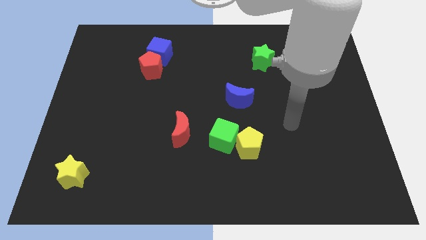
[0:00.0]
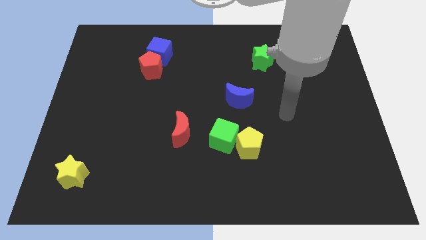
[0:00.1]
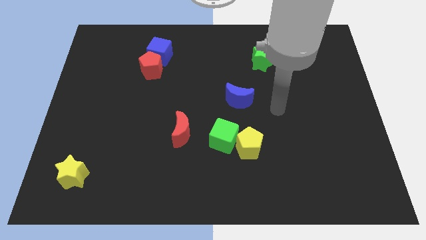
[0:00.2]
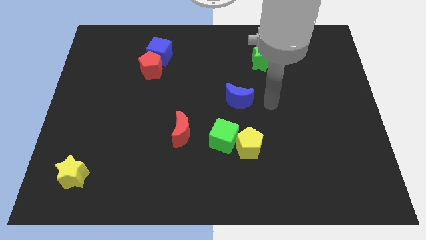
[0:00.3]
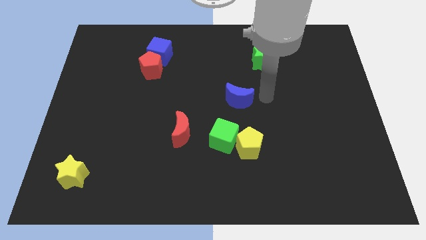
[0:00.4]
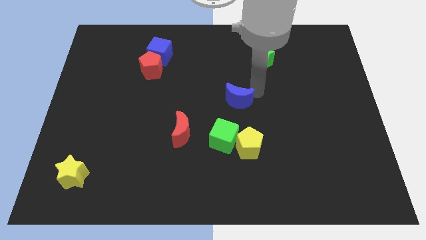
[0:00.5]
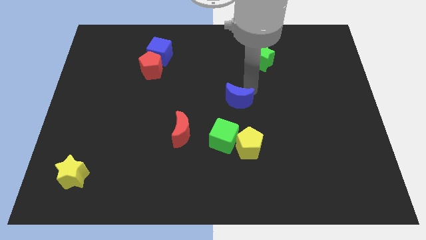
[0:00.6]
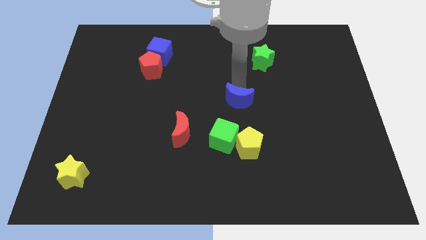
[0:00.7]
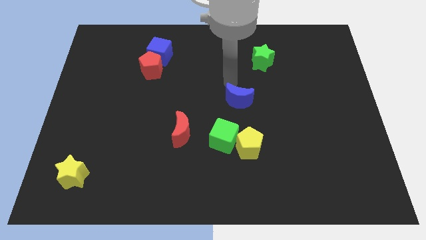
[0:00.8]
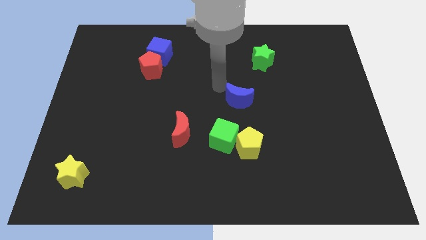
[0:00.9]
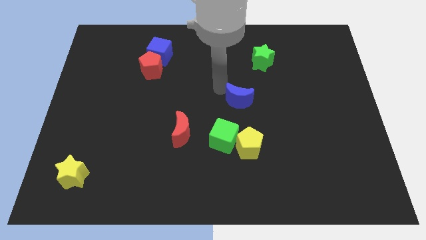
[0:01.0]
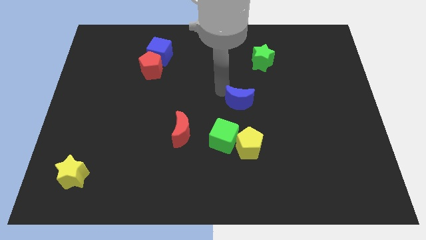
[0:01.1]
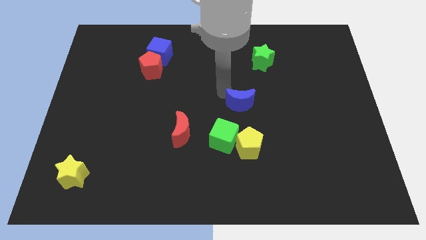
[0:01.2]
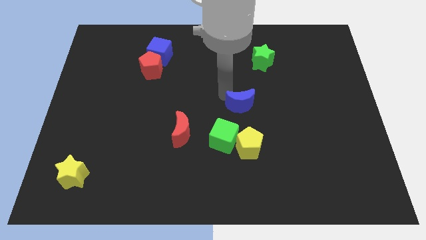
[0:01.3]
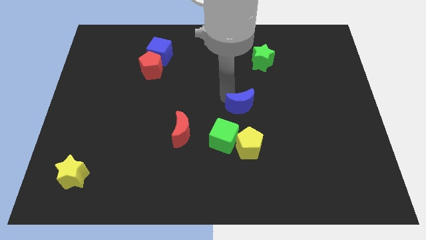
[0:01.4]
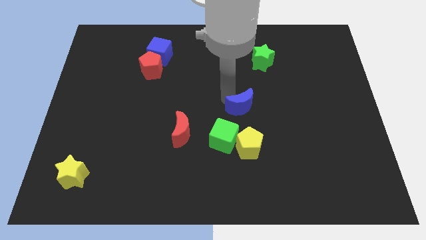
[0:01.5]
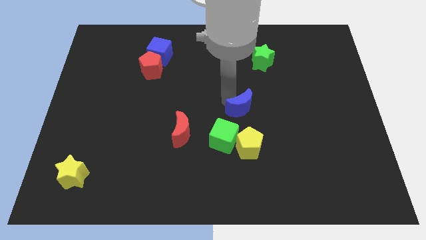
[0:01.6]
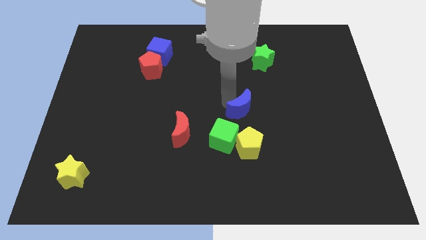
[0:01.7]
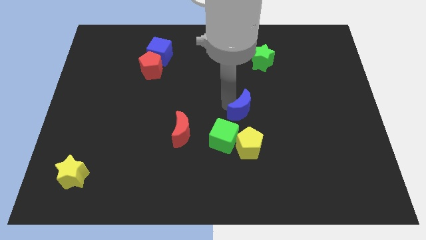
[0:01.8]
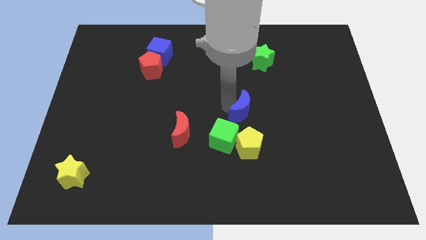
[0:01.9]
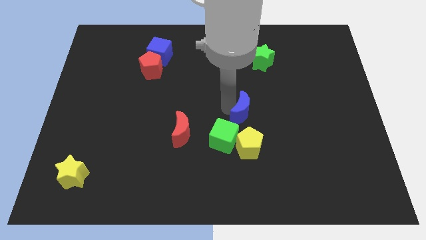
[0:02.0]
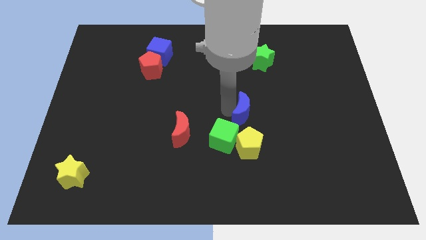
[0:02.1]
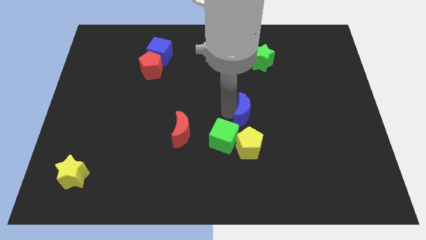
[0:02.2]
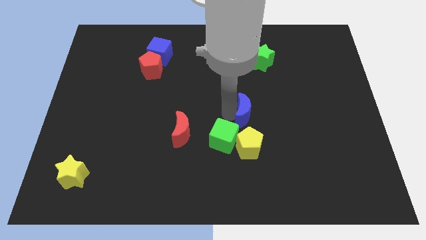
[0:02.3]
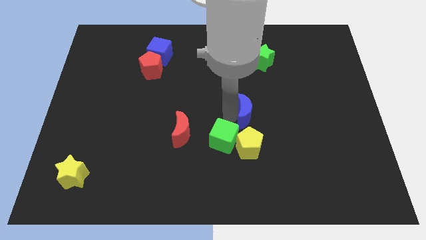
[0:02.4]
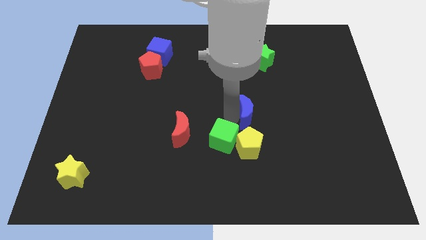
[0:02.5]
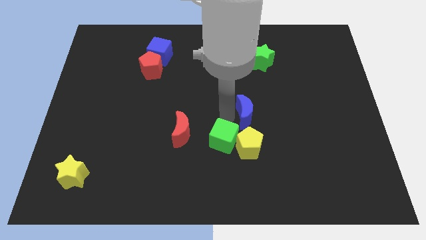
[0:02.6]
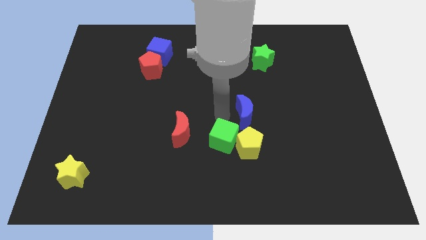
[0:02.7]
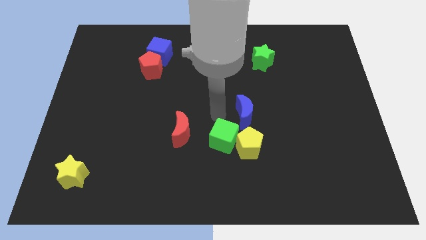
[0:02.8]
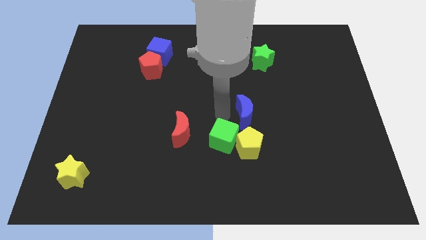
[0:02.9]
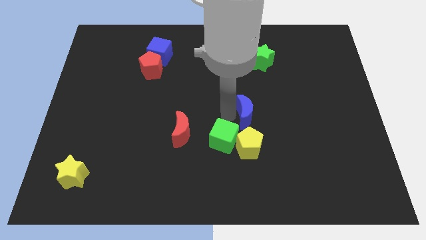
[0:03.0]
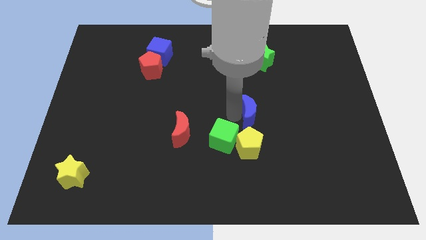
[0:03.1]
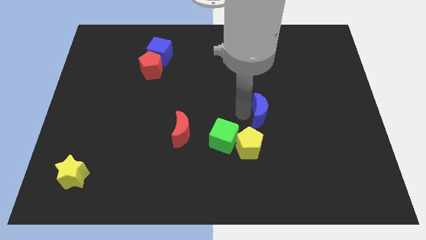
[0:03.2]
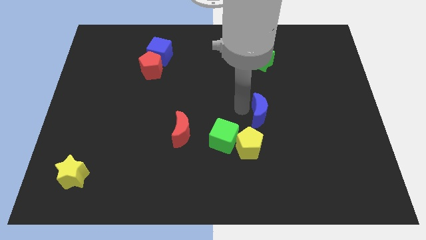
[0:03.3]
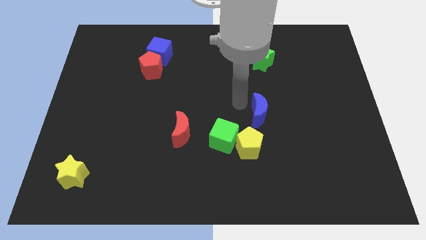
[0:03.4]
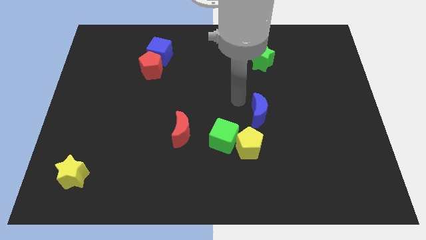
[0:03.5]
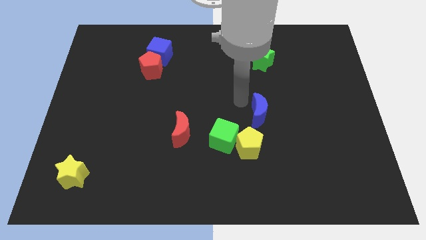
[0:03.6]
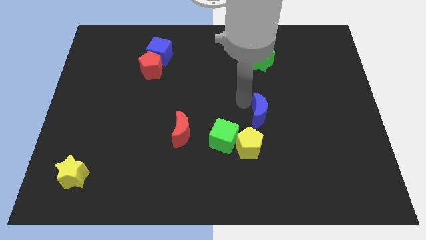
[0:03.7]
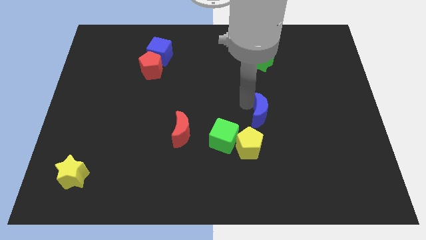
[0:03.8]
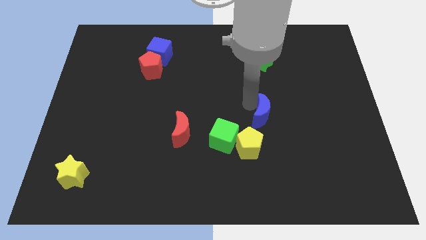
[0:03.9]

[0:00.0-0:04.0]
slide the blue moon somewhat downwards and to the right

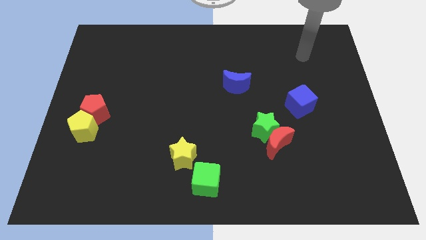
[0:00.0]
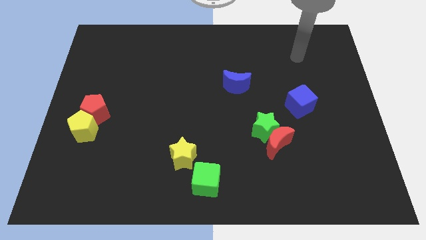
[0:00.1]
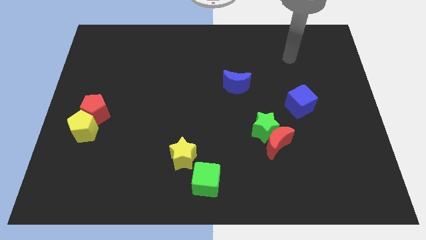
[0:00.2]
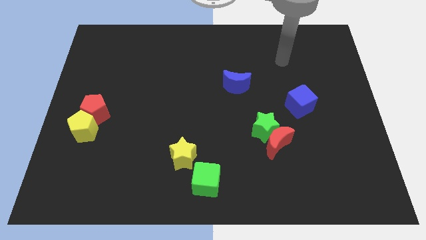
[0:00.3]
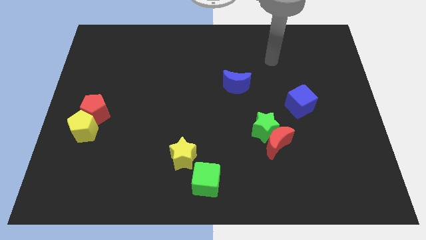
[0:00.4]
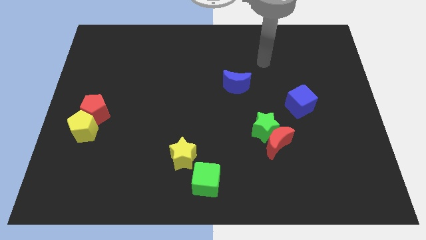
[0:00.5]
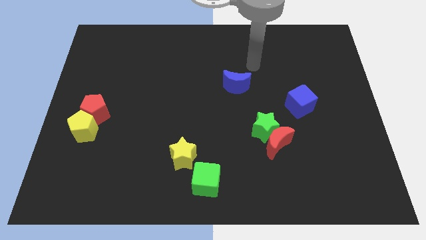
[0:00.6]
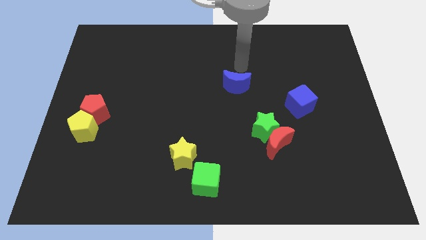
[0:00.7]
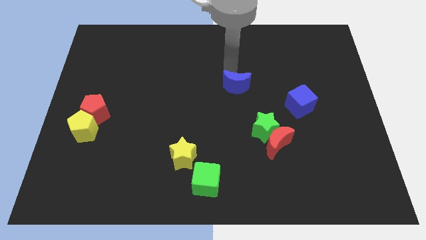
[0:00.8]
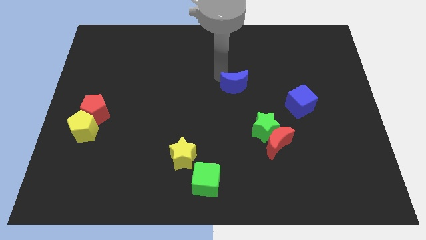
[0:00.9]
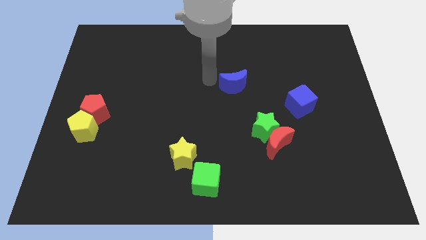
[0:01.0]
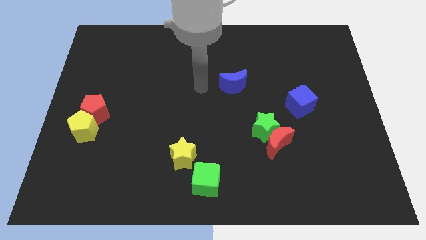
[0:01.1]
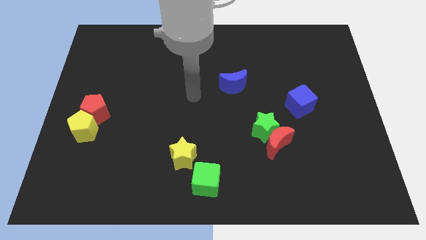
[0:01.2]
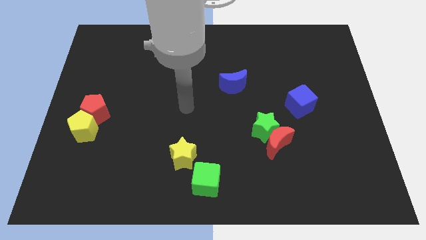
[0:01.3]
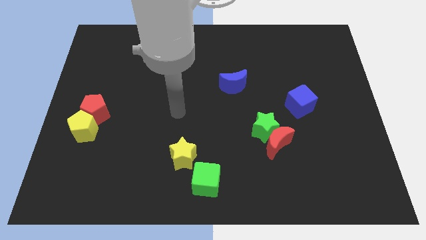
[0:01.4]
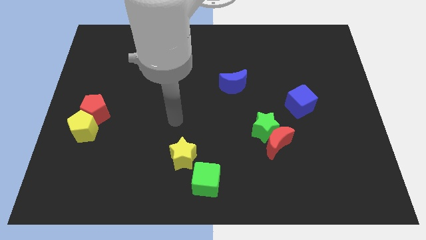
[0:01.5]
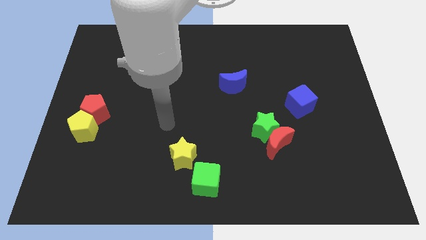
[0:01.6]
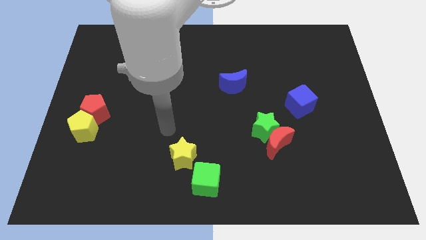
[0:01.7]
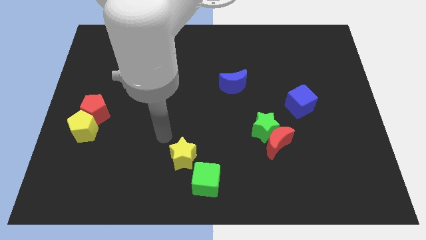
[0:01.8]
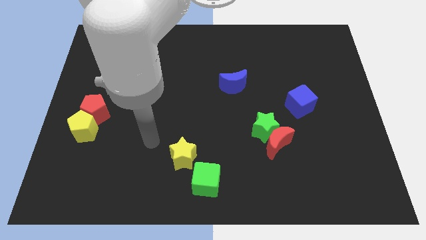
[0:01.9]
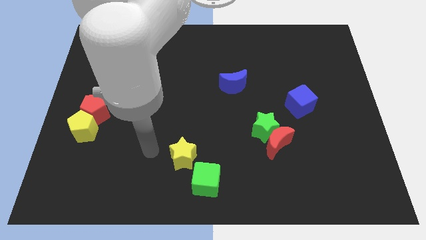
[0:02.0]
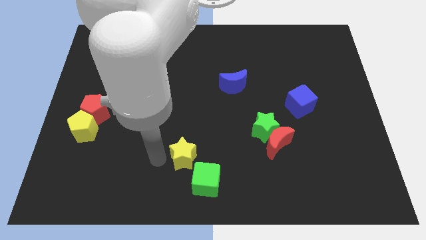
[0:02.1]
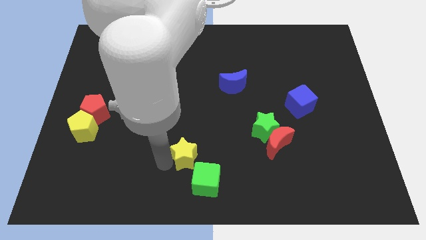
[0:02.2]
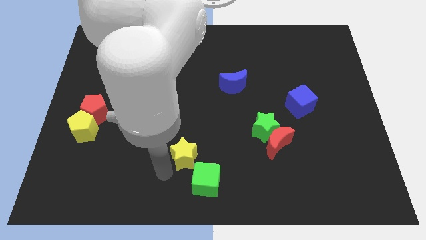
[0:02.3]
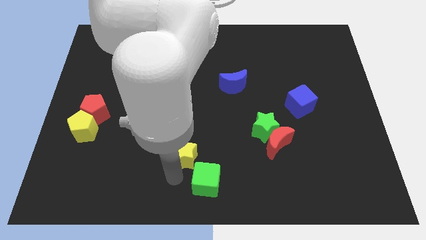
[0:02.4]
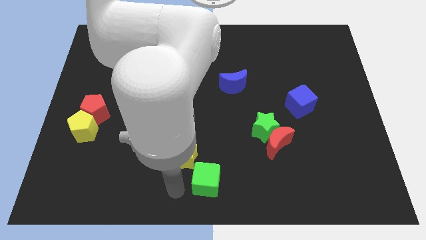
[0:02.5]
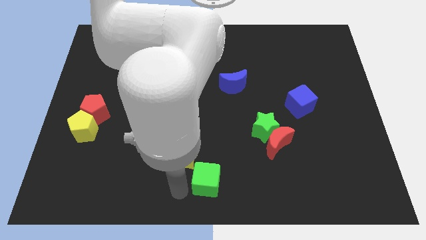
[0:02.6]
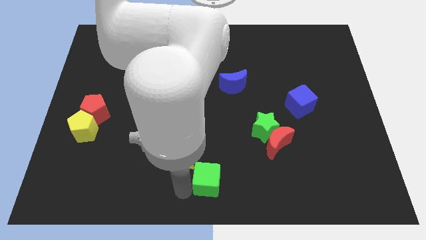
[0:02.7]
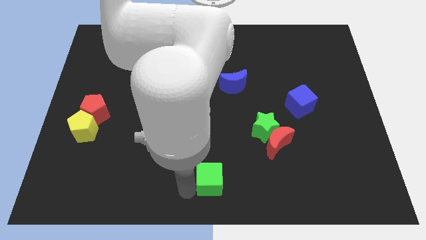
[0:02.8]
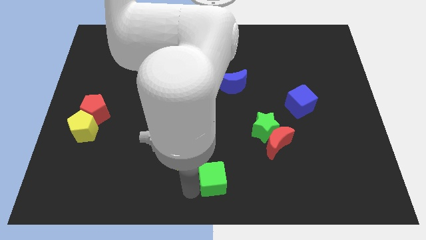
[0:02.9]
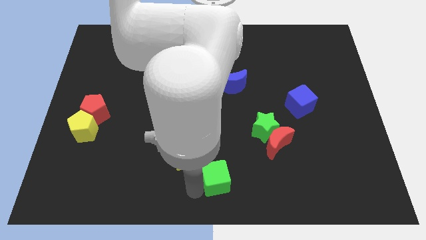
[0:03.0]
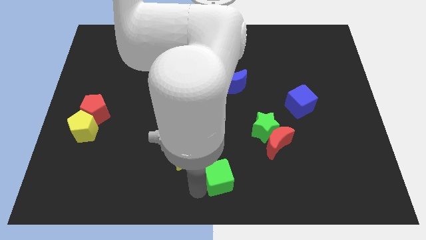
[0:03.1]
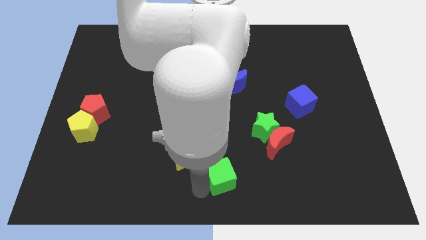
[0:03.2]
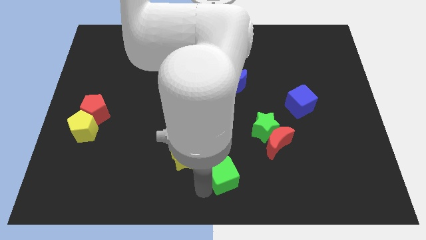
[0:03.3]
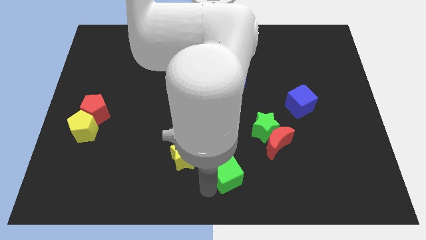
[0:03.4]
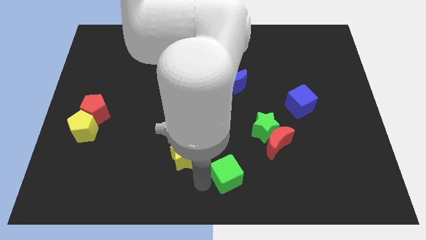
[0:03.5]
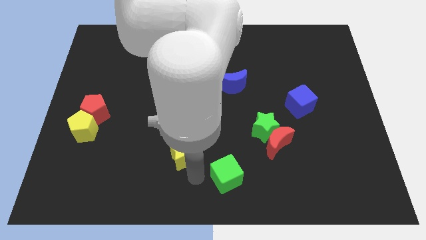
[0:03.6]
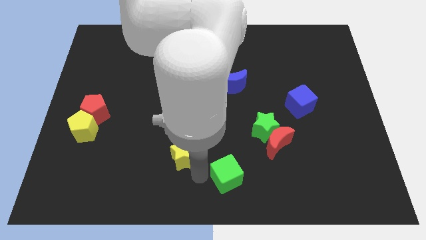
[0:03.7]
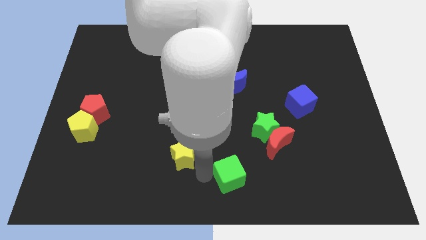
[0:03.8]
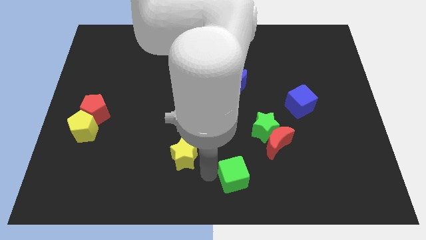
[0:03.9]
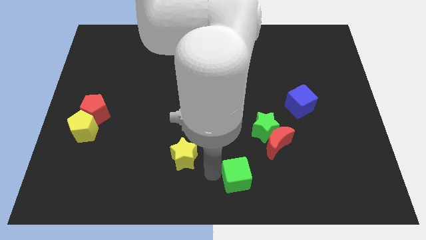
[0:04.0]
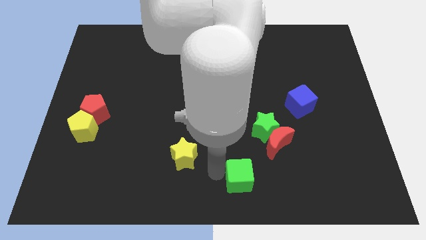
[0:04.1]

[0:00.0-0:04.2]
move the green cube to the right a bit
